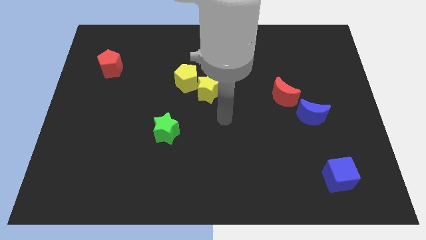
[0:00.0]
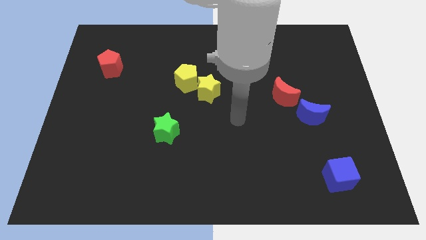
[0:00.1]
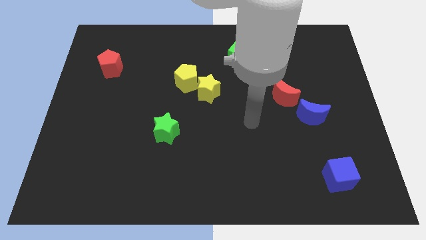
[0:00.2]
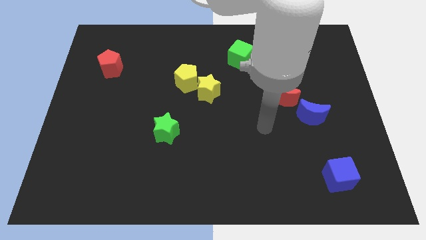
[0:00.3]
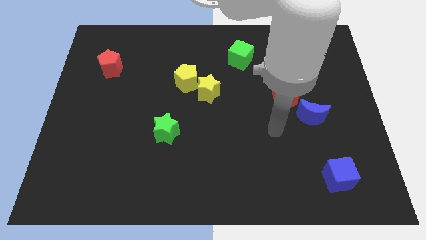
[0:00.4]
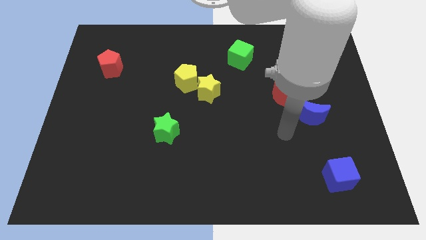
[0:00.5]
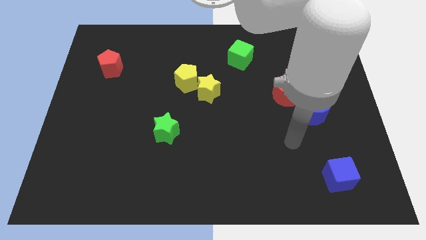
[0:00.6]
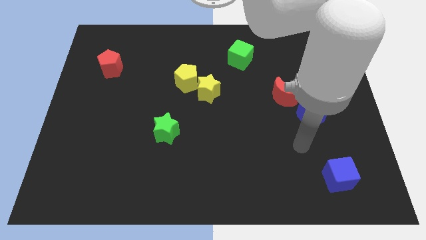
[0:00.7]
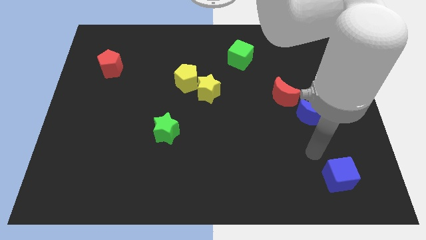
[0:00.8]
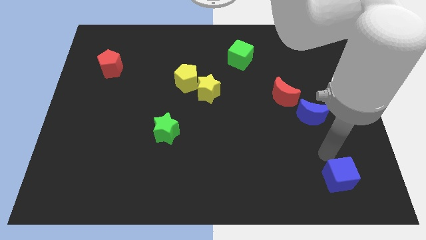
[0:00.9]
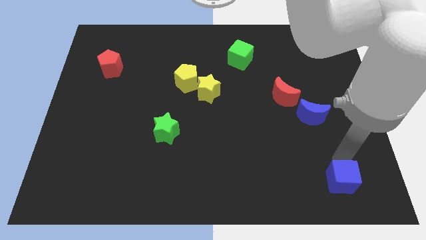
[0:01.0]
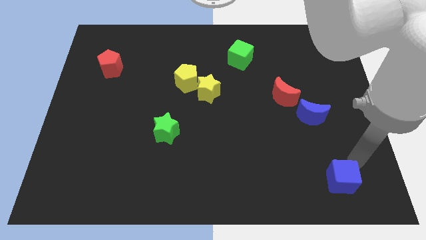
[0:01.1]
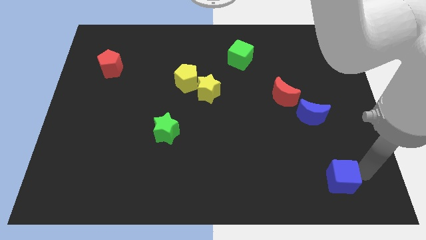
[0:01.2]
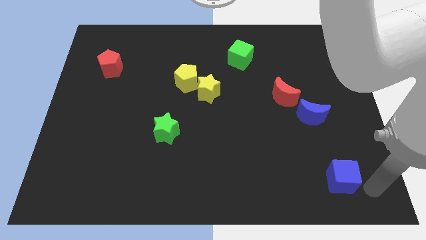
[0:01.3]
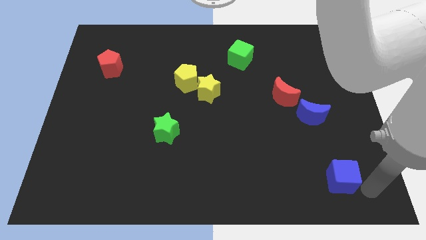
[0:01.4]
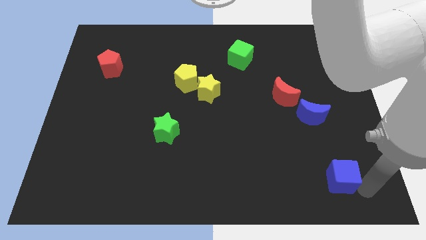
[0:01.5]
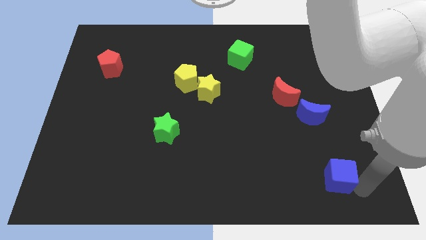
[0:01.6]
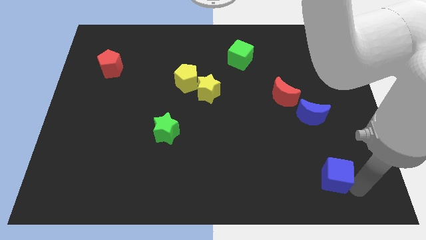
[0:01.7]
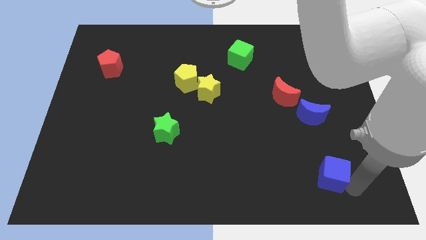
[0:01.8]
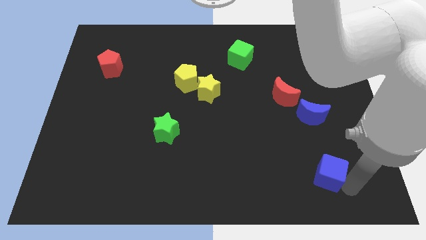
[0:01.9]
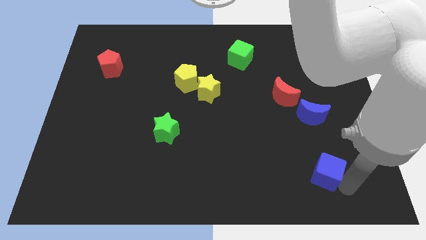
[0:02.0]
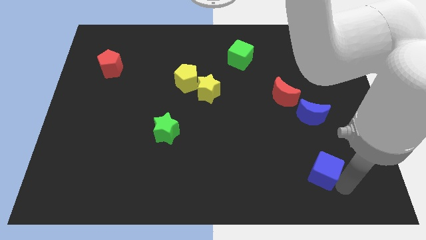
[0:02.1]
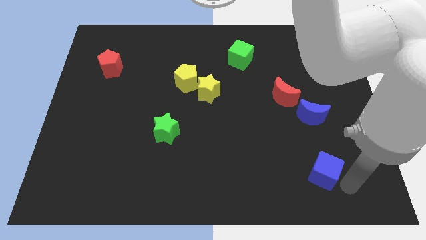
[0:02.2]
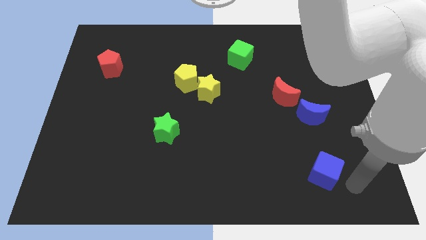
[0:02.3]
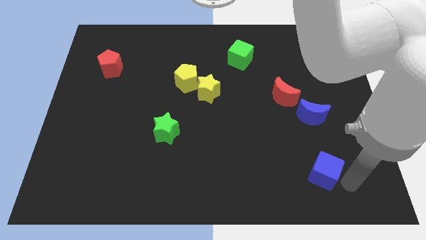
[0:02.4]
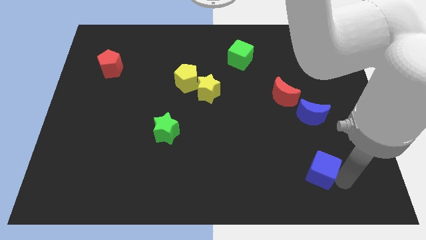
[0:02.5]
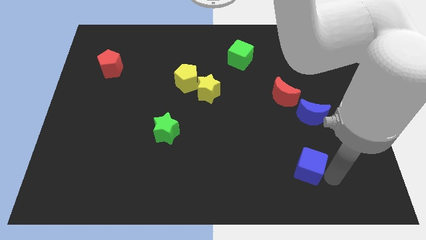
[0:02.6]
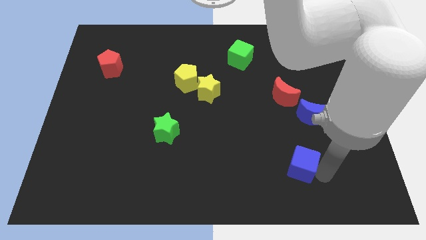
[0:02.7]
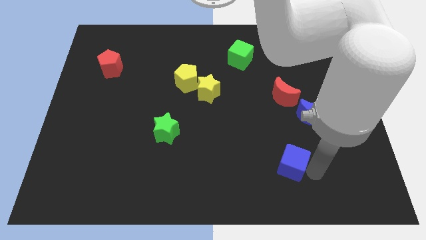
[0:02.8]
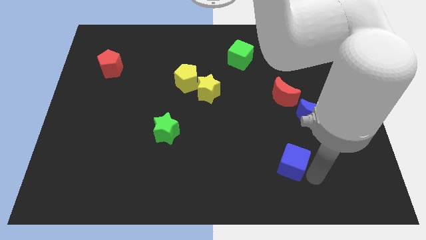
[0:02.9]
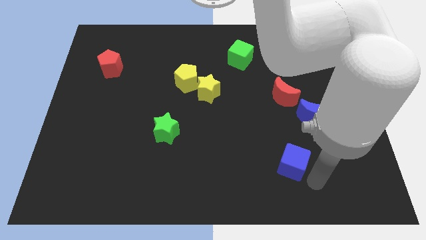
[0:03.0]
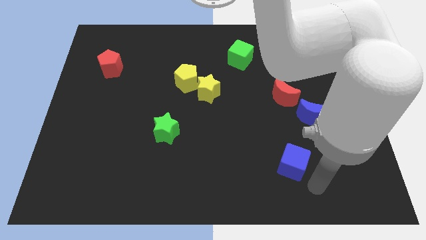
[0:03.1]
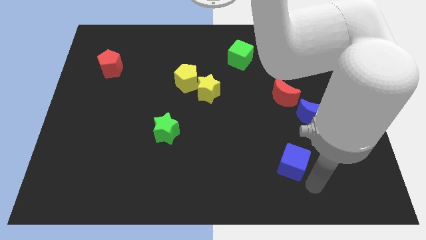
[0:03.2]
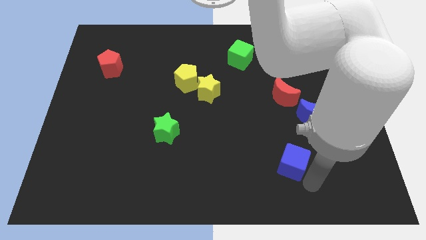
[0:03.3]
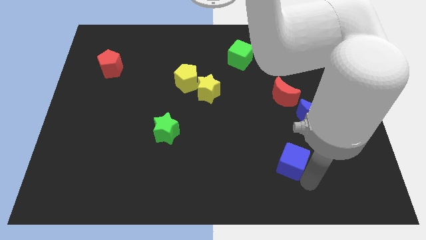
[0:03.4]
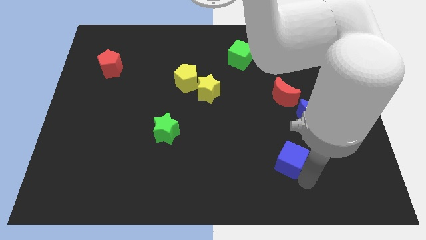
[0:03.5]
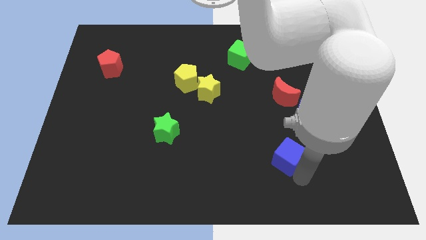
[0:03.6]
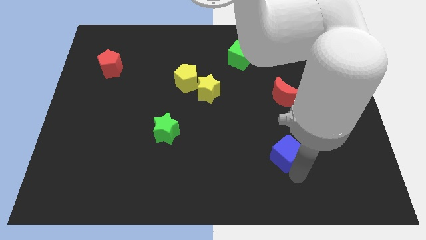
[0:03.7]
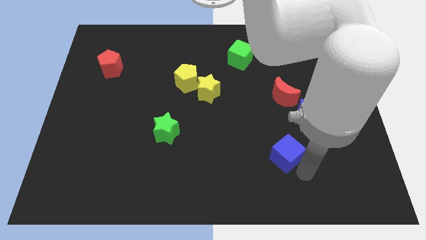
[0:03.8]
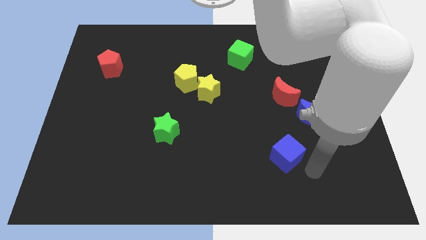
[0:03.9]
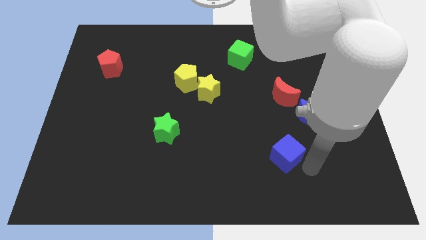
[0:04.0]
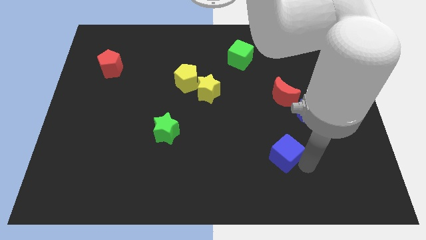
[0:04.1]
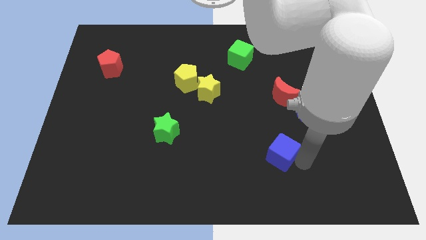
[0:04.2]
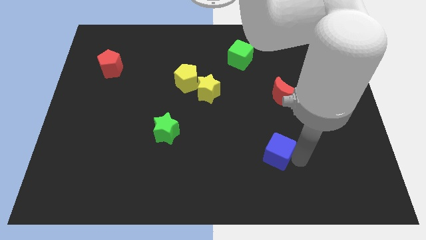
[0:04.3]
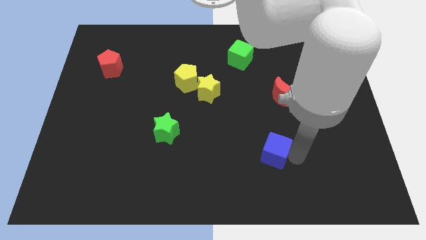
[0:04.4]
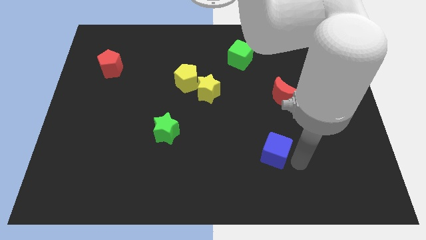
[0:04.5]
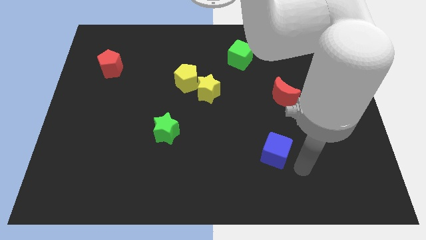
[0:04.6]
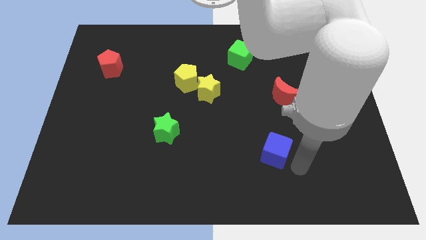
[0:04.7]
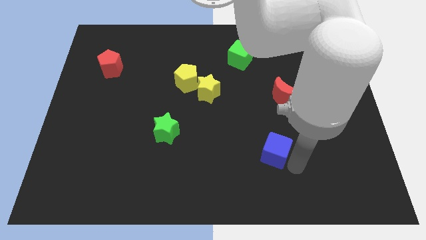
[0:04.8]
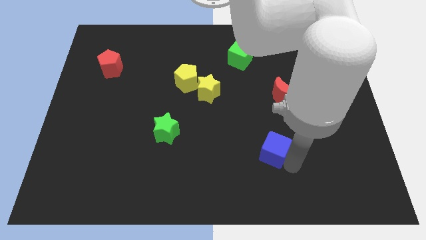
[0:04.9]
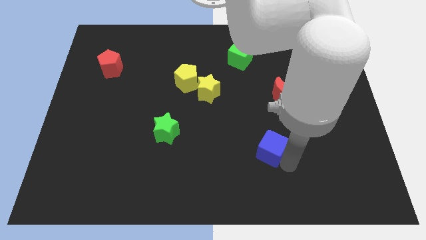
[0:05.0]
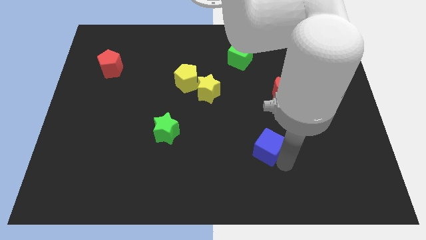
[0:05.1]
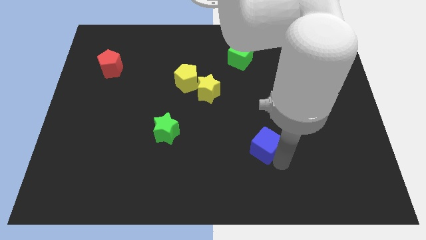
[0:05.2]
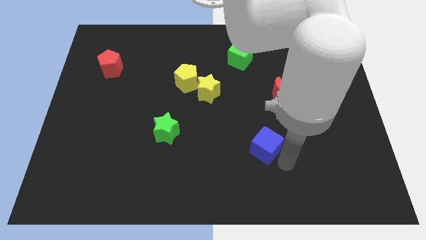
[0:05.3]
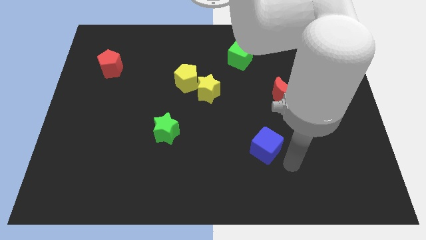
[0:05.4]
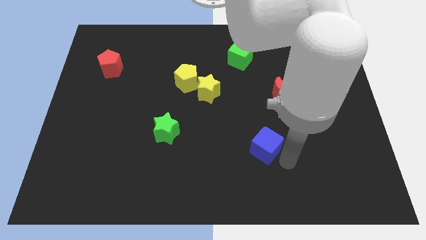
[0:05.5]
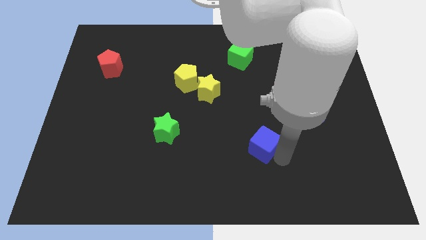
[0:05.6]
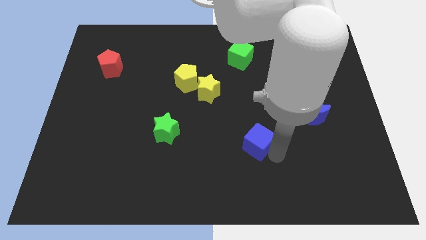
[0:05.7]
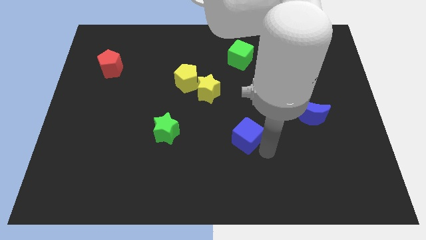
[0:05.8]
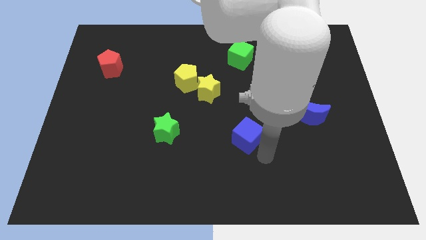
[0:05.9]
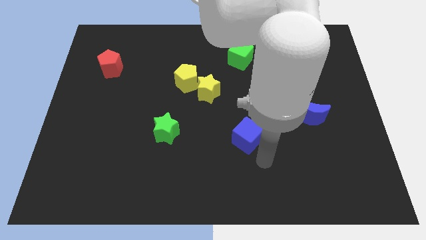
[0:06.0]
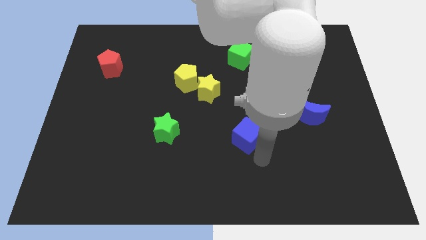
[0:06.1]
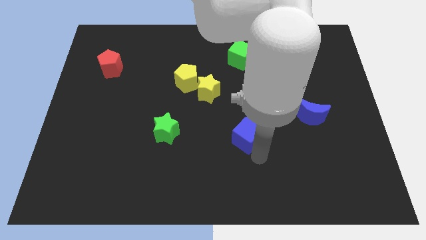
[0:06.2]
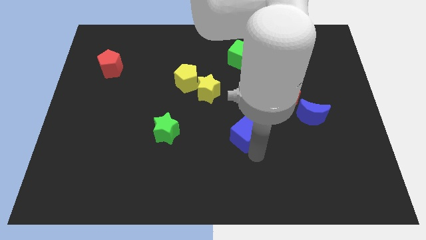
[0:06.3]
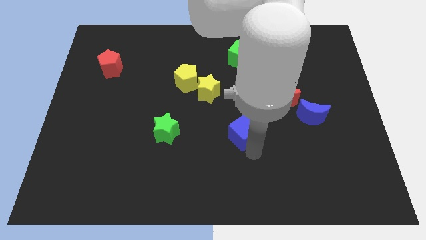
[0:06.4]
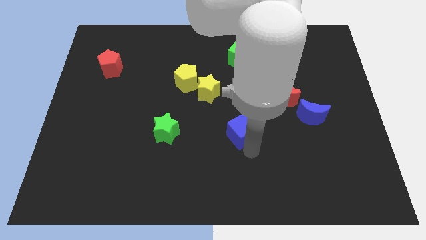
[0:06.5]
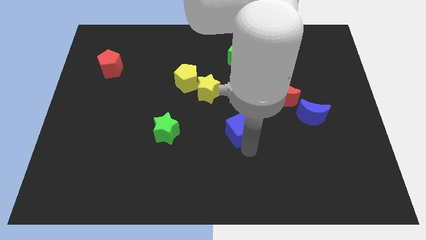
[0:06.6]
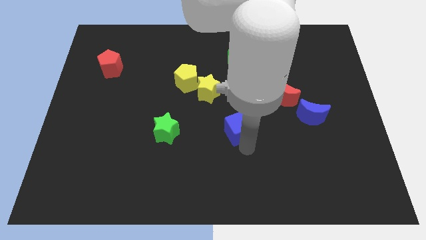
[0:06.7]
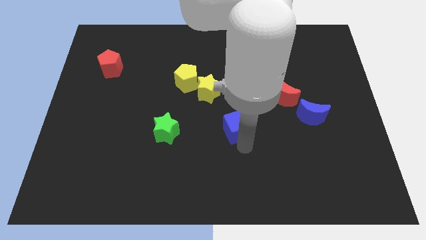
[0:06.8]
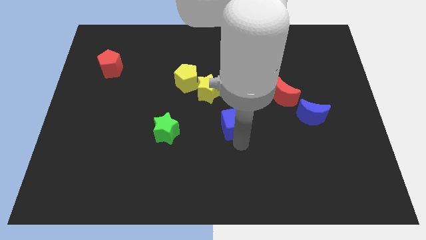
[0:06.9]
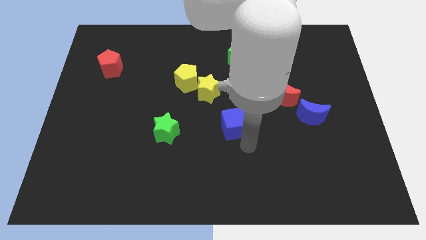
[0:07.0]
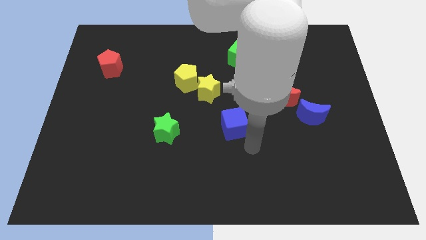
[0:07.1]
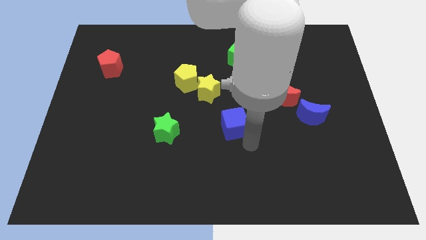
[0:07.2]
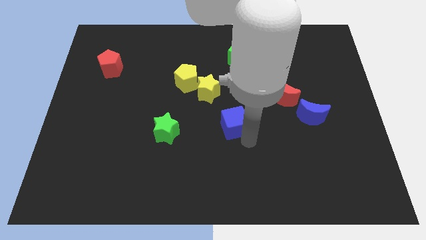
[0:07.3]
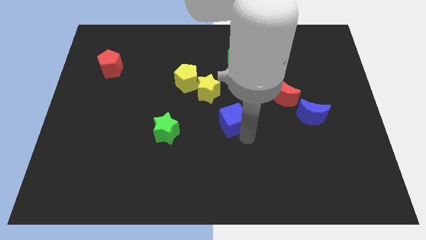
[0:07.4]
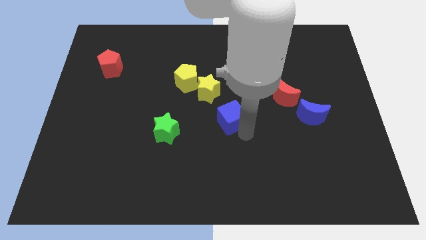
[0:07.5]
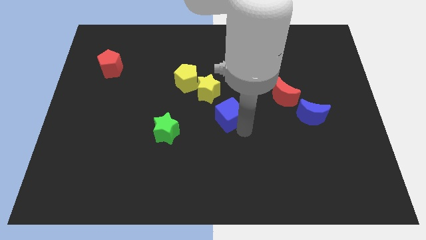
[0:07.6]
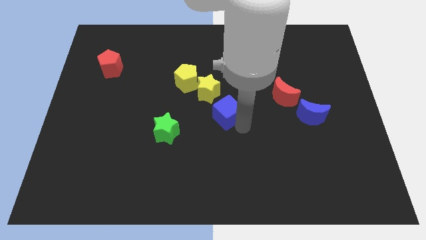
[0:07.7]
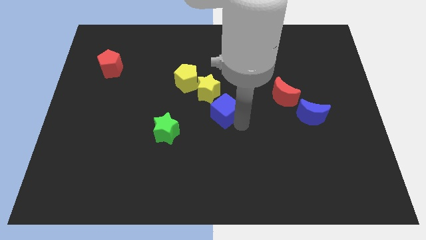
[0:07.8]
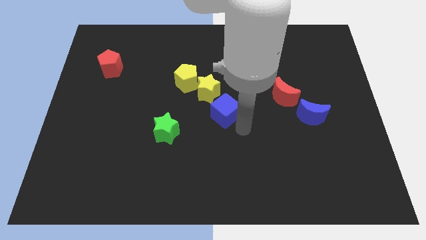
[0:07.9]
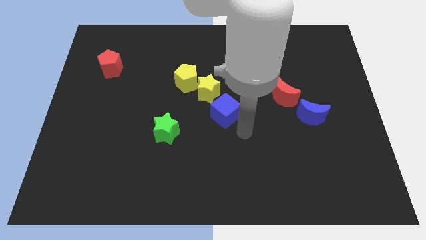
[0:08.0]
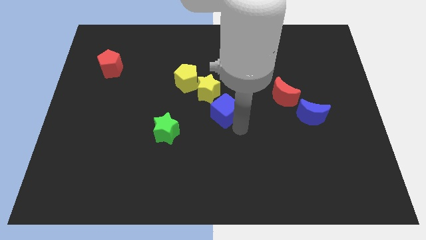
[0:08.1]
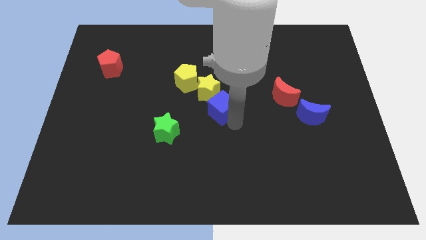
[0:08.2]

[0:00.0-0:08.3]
move the blue cube to the bottom right of the yellow pentagon
